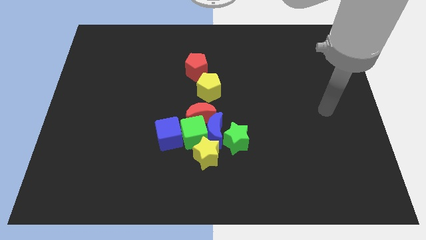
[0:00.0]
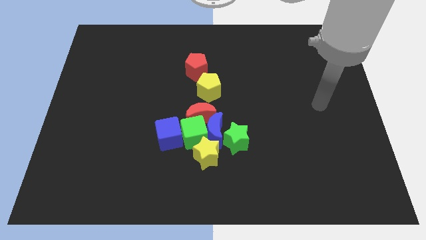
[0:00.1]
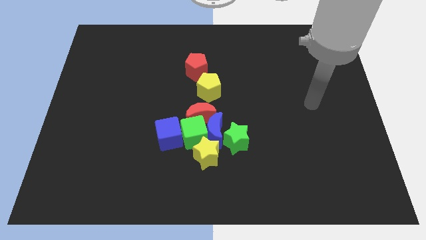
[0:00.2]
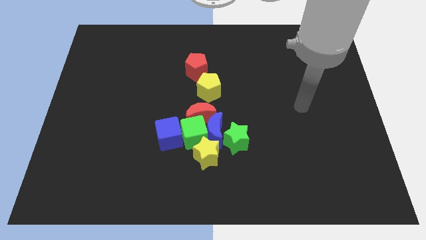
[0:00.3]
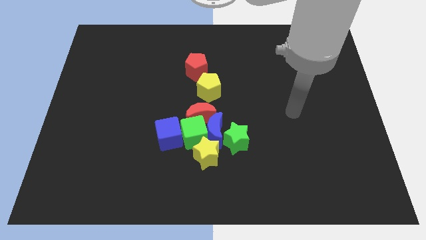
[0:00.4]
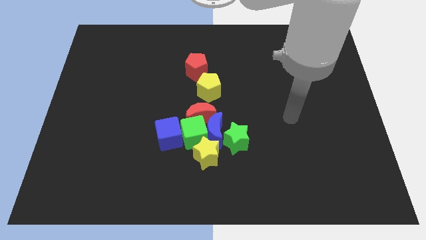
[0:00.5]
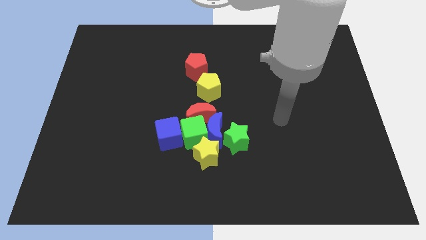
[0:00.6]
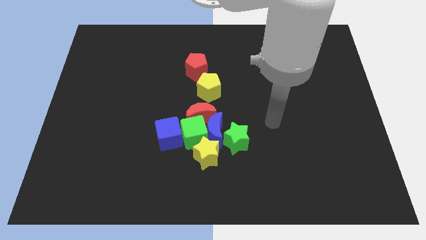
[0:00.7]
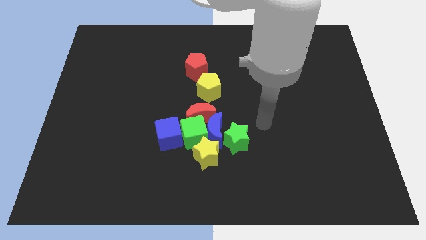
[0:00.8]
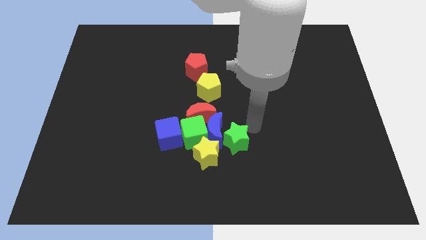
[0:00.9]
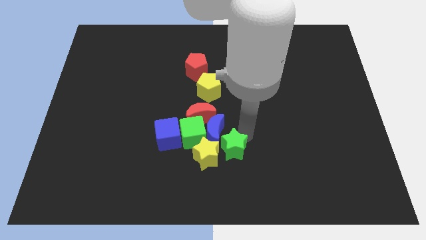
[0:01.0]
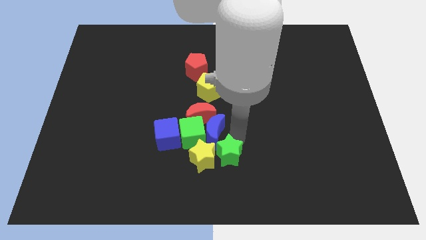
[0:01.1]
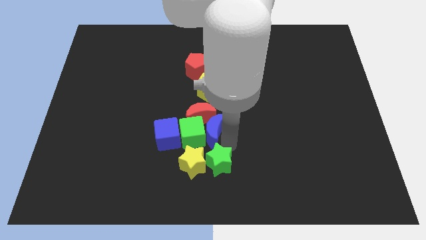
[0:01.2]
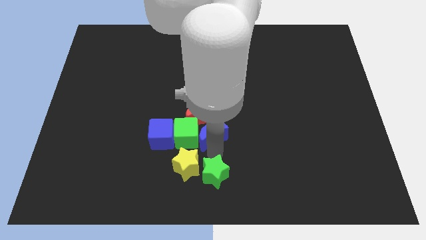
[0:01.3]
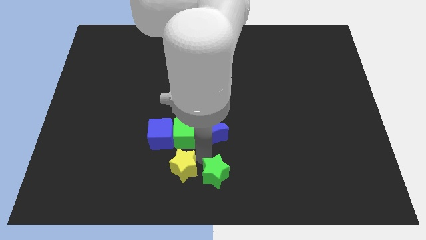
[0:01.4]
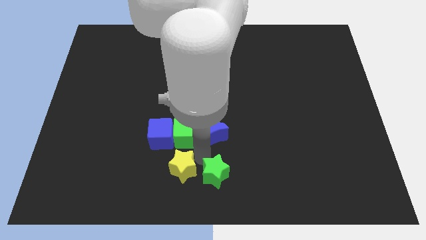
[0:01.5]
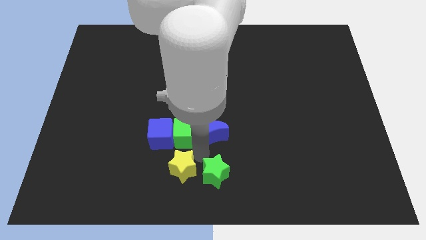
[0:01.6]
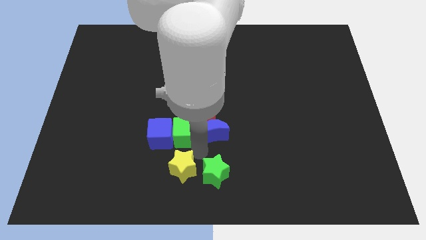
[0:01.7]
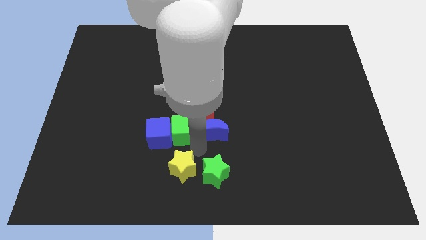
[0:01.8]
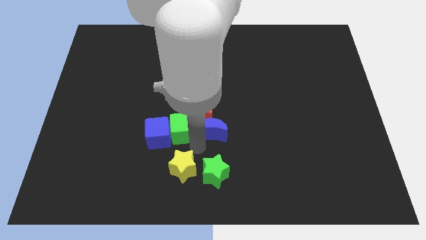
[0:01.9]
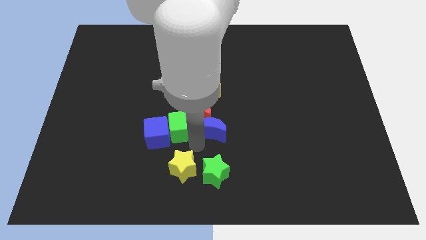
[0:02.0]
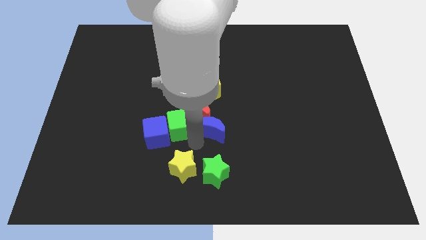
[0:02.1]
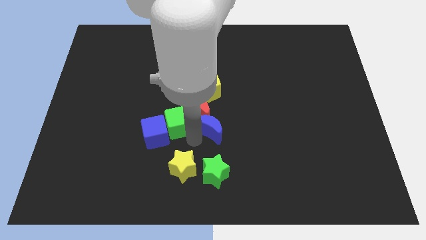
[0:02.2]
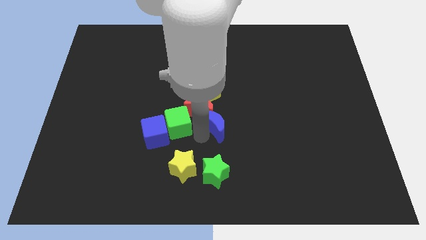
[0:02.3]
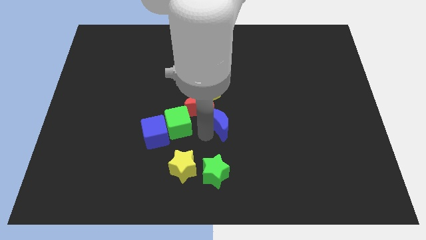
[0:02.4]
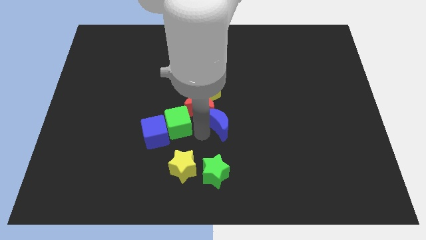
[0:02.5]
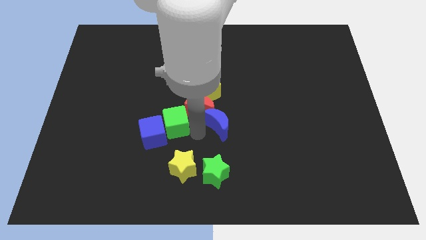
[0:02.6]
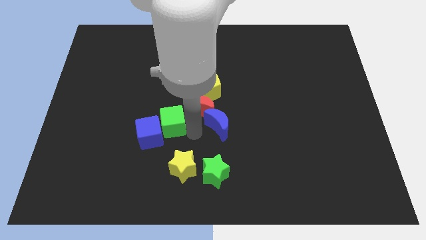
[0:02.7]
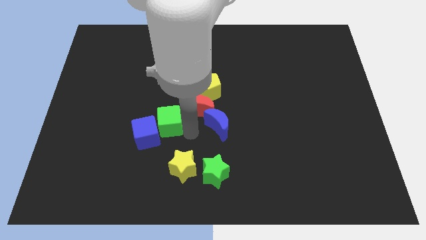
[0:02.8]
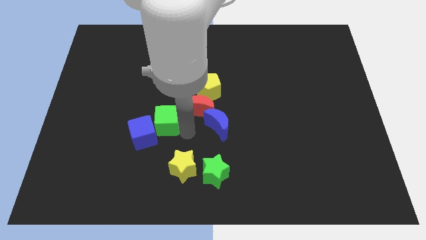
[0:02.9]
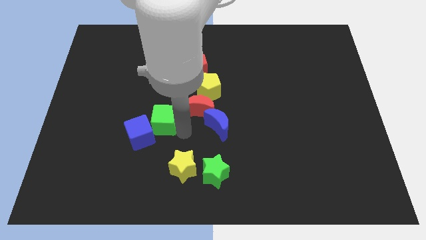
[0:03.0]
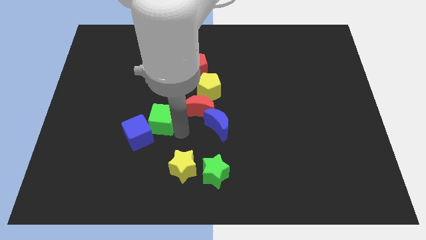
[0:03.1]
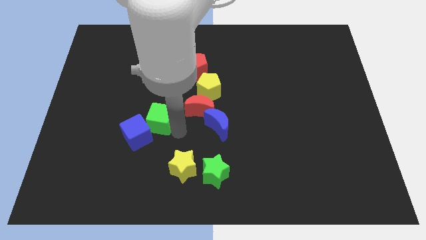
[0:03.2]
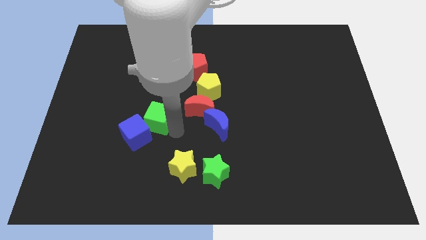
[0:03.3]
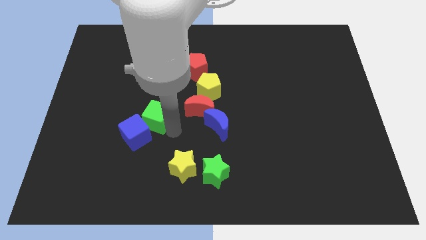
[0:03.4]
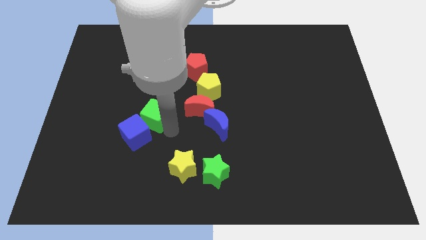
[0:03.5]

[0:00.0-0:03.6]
move the green cube away from the clump

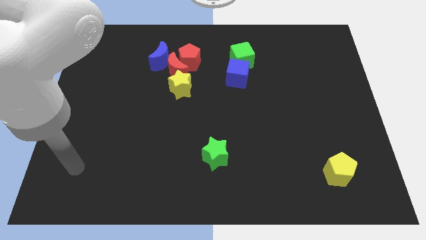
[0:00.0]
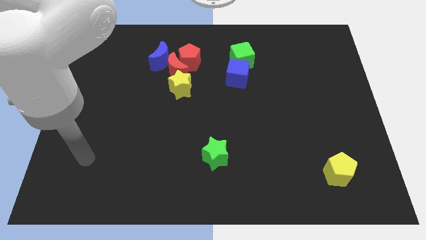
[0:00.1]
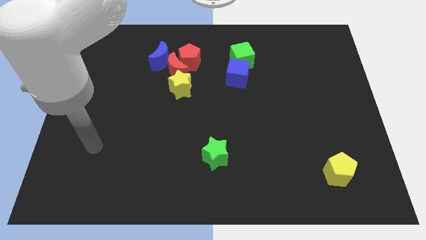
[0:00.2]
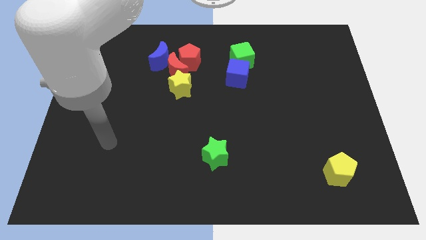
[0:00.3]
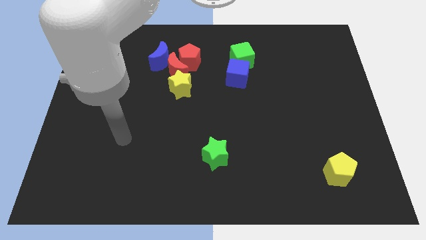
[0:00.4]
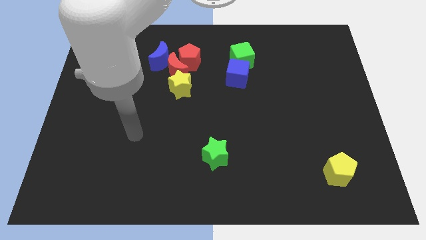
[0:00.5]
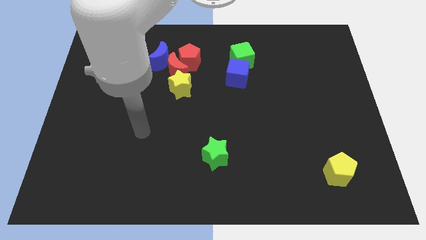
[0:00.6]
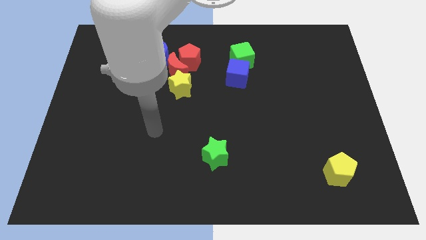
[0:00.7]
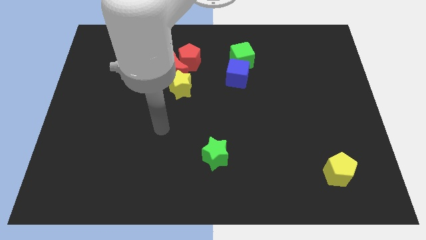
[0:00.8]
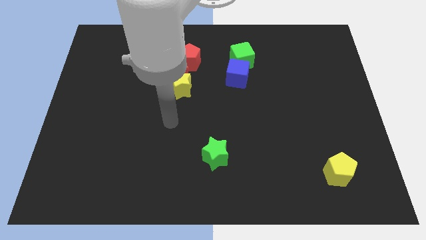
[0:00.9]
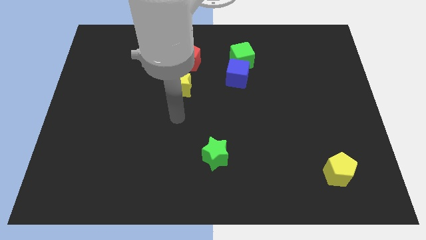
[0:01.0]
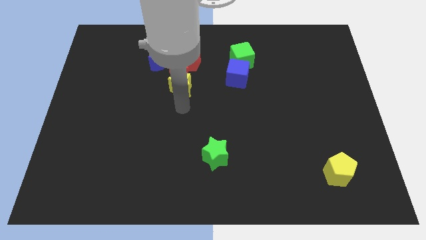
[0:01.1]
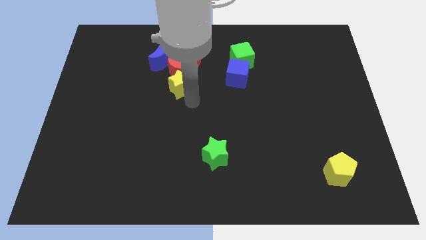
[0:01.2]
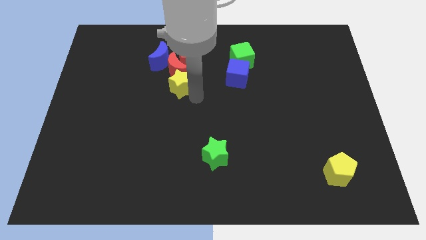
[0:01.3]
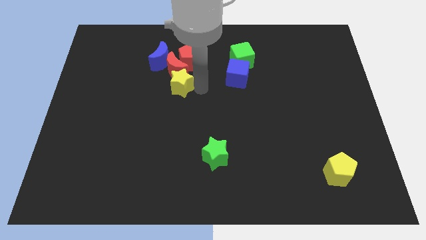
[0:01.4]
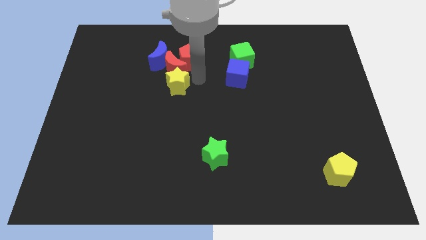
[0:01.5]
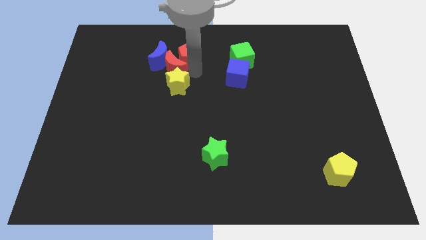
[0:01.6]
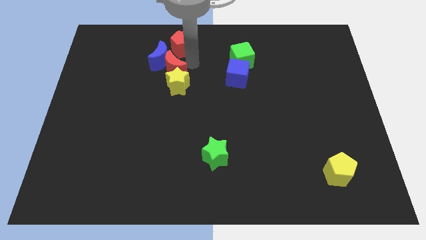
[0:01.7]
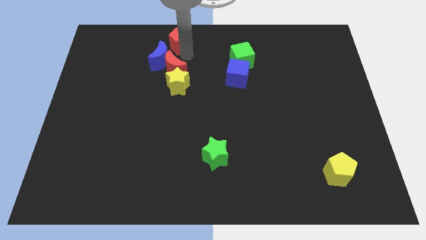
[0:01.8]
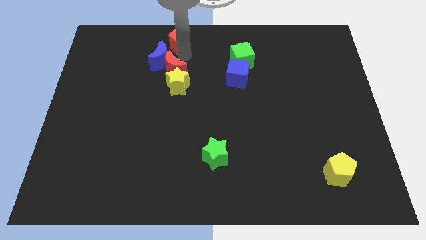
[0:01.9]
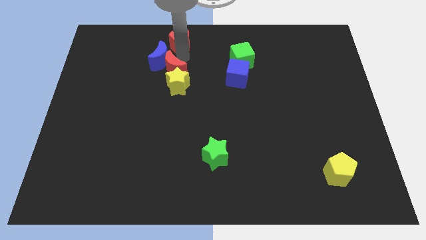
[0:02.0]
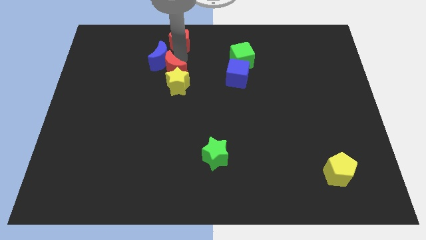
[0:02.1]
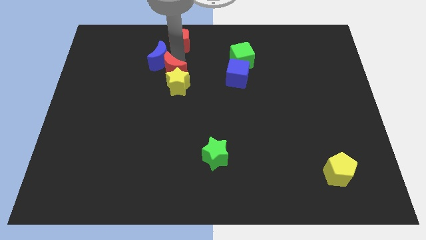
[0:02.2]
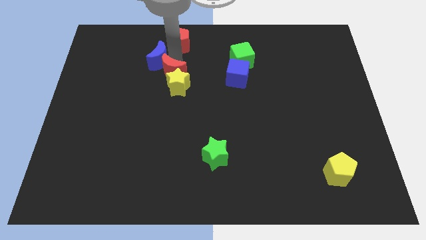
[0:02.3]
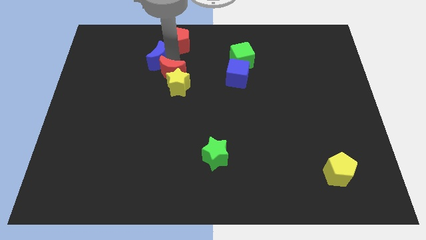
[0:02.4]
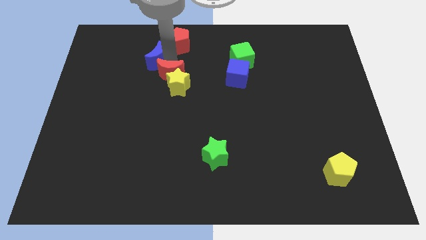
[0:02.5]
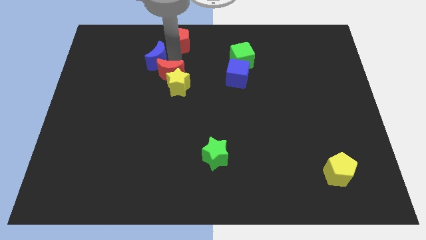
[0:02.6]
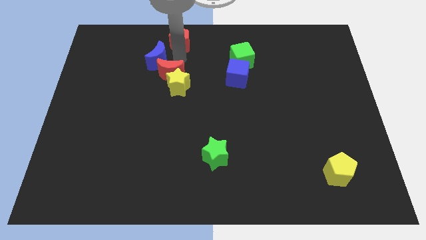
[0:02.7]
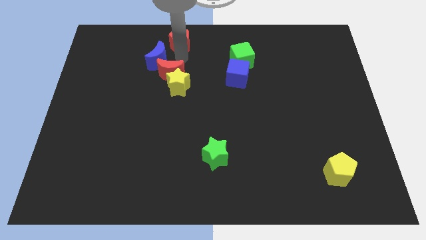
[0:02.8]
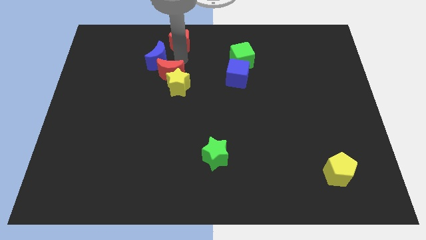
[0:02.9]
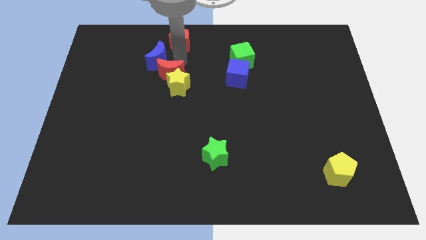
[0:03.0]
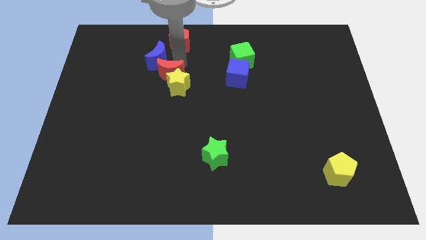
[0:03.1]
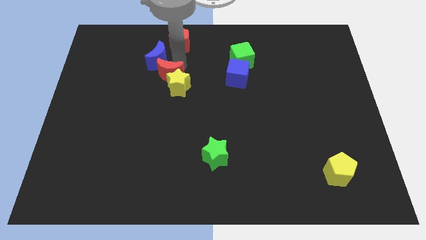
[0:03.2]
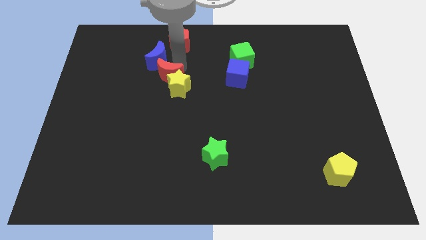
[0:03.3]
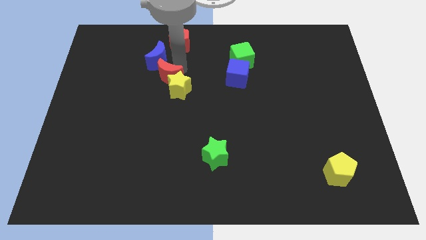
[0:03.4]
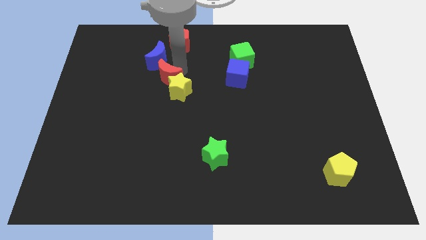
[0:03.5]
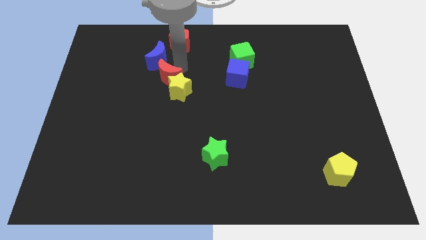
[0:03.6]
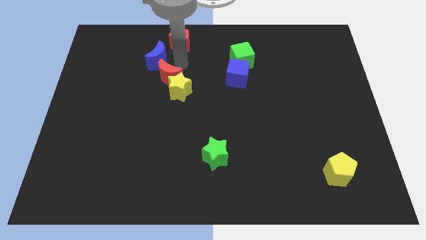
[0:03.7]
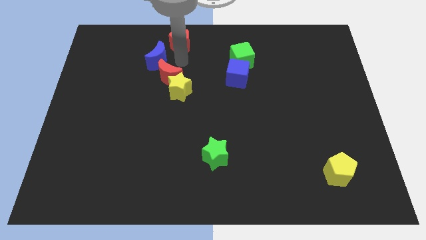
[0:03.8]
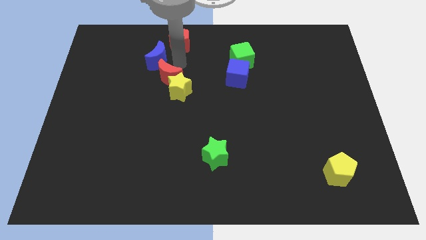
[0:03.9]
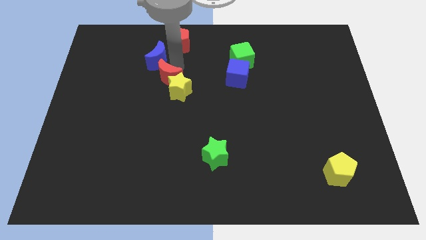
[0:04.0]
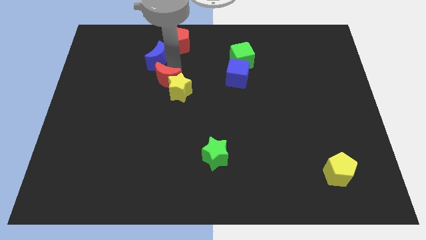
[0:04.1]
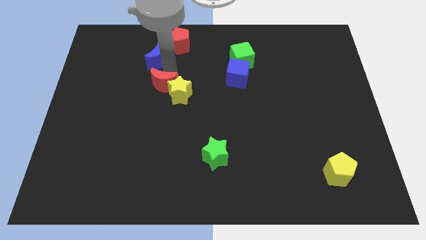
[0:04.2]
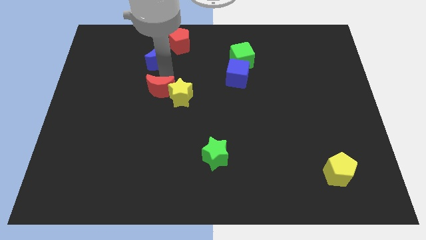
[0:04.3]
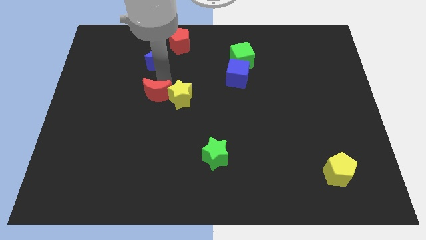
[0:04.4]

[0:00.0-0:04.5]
separate the red moon from the red pentagon, yellow star, and blue moon

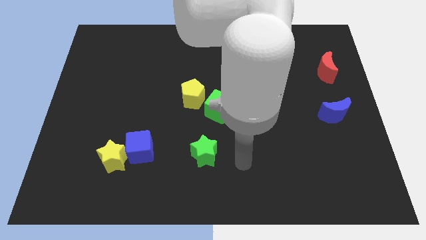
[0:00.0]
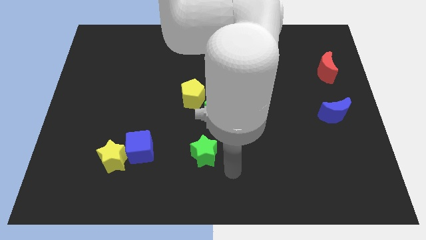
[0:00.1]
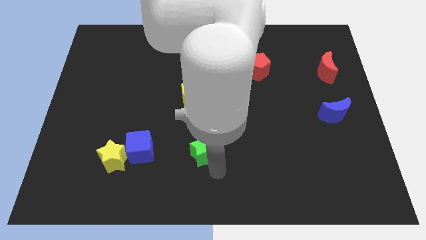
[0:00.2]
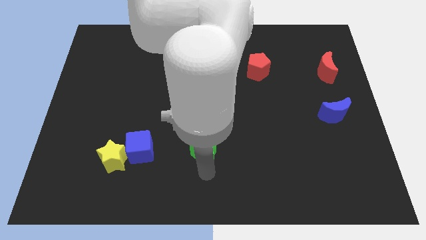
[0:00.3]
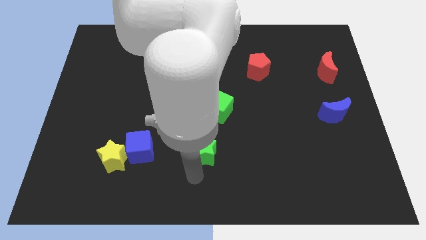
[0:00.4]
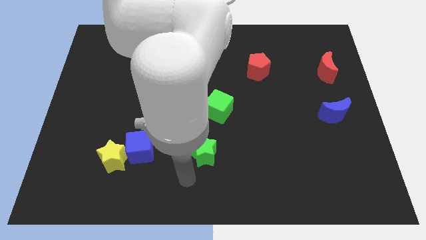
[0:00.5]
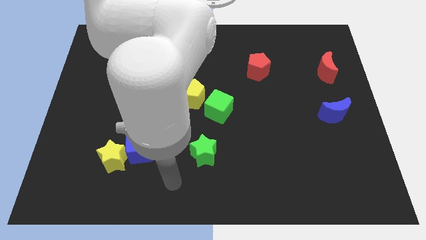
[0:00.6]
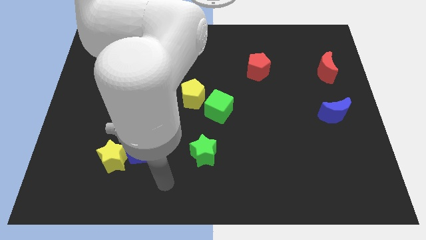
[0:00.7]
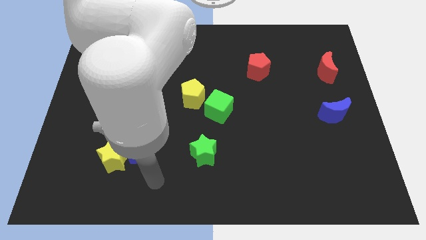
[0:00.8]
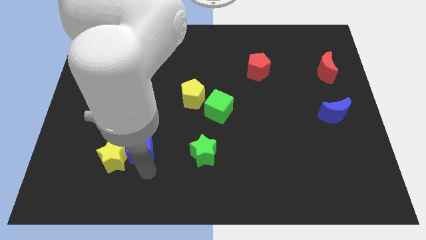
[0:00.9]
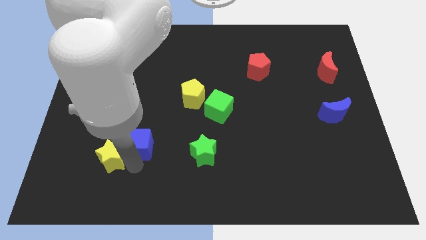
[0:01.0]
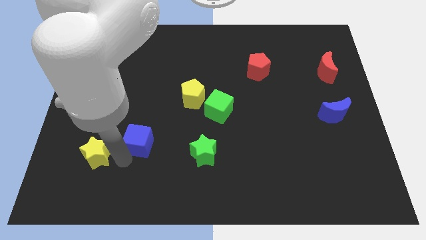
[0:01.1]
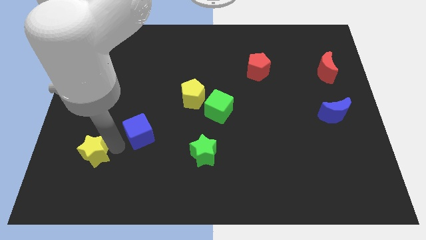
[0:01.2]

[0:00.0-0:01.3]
move the blue cube away from the yellow star
